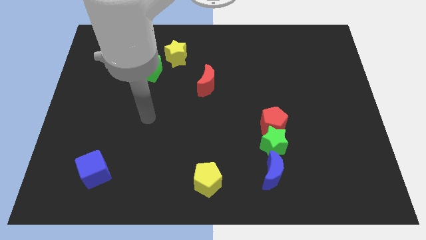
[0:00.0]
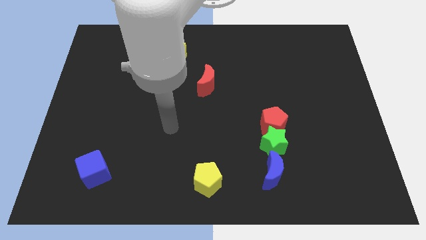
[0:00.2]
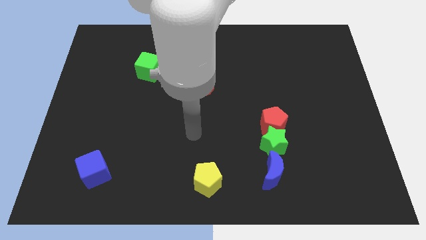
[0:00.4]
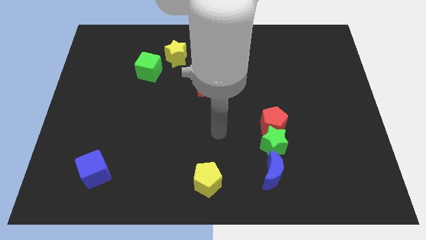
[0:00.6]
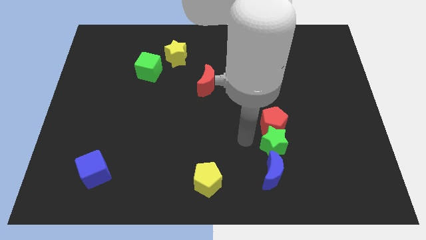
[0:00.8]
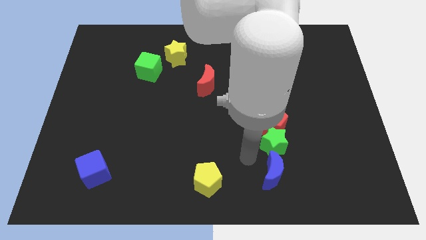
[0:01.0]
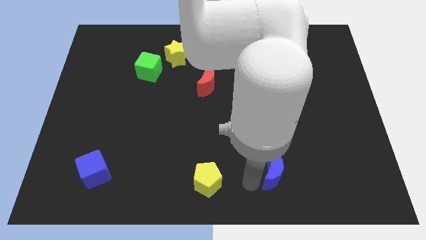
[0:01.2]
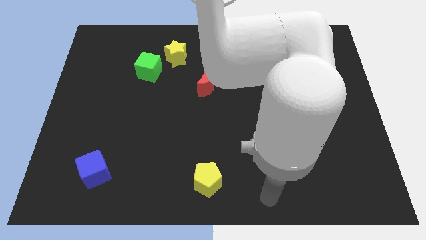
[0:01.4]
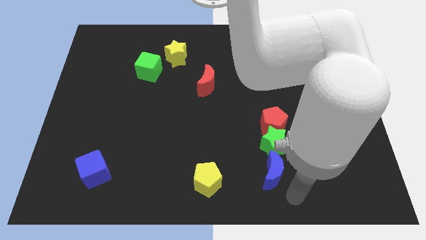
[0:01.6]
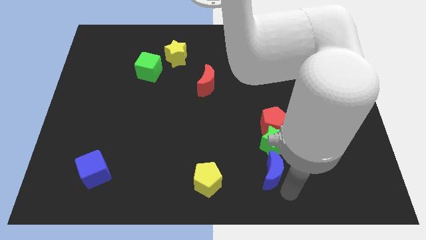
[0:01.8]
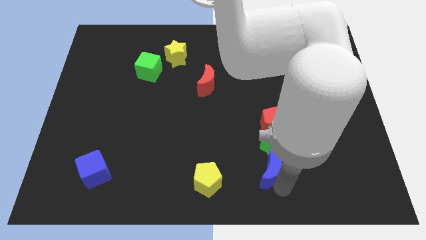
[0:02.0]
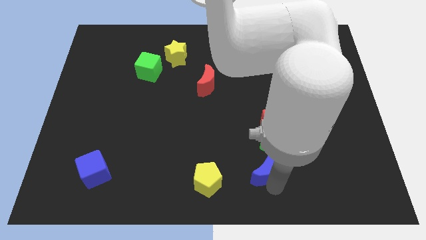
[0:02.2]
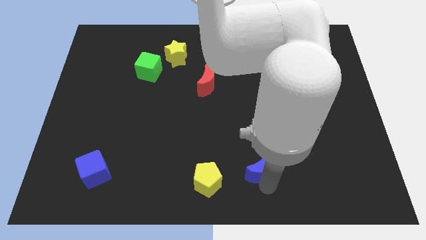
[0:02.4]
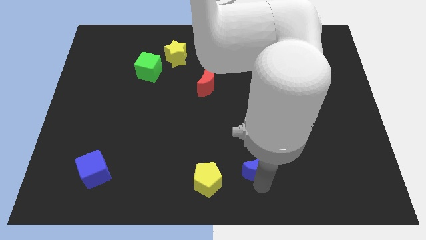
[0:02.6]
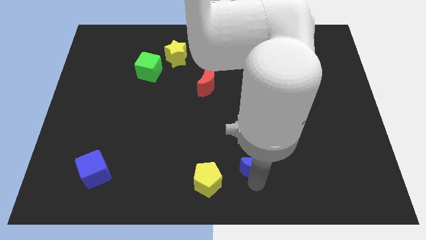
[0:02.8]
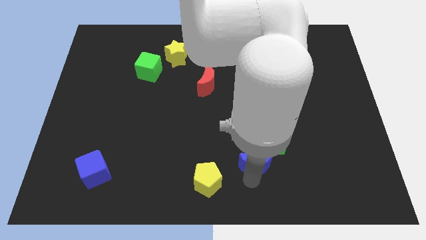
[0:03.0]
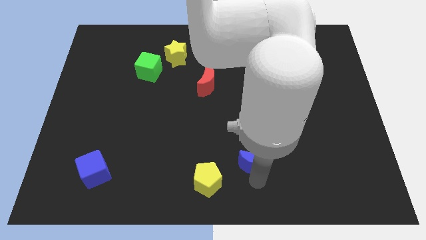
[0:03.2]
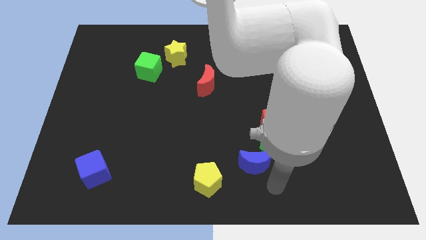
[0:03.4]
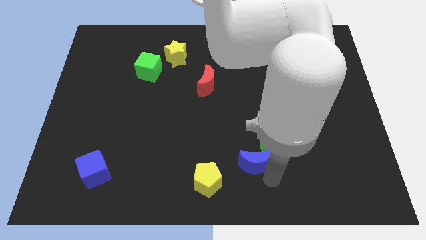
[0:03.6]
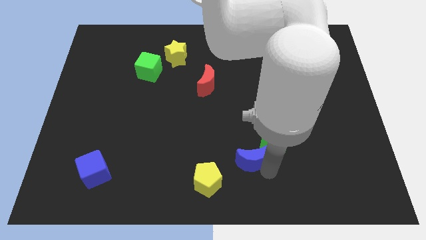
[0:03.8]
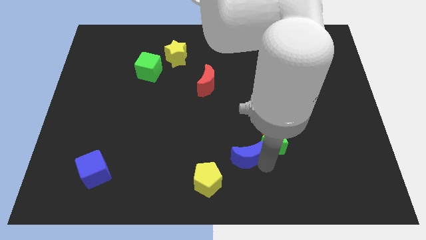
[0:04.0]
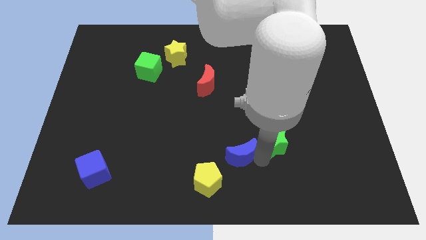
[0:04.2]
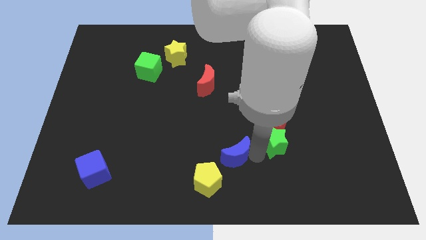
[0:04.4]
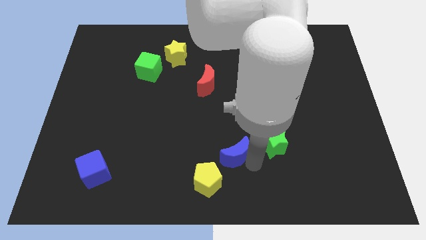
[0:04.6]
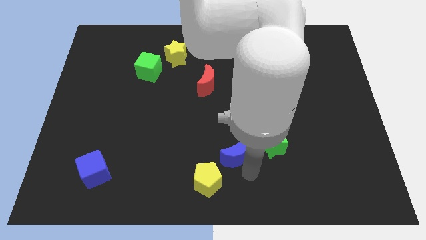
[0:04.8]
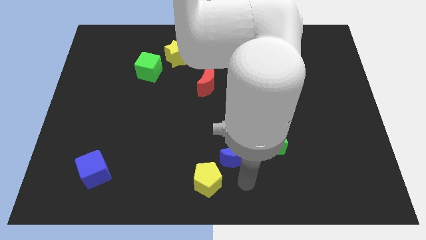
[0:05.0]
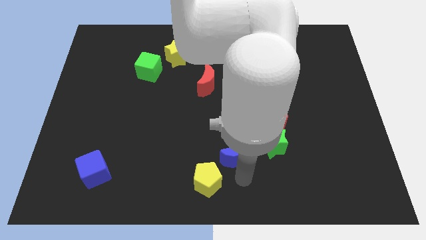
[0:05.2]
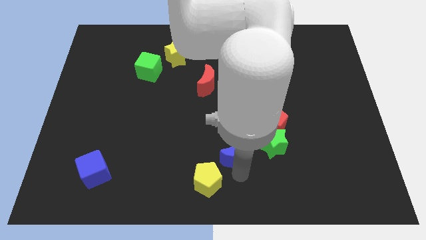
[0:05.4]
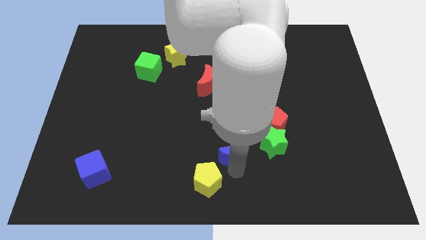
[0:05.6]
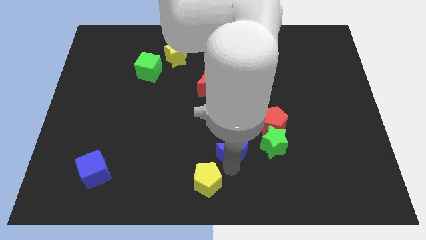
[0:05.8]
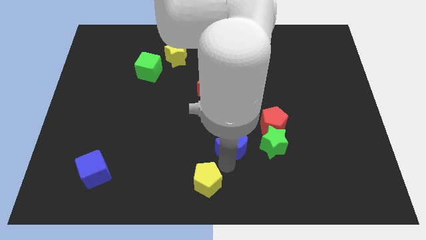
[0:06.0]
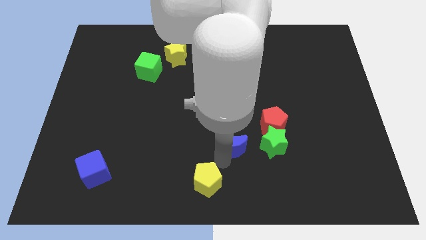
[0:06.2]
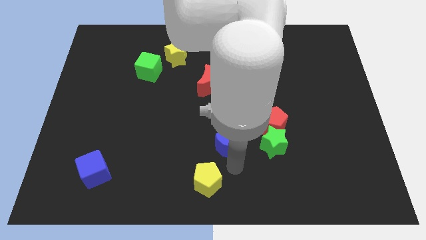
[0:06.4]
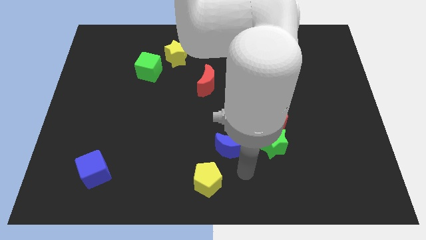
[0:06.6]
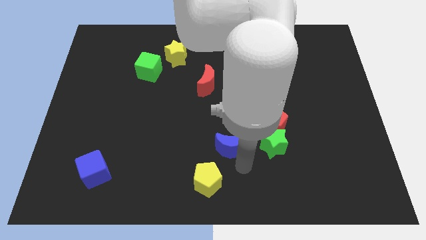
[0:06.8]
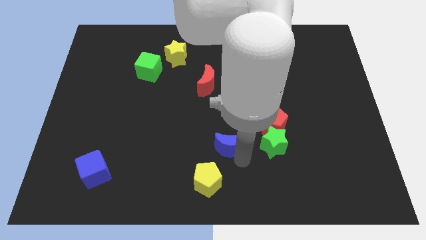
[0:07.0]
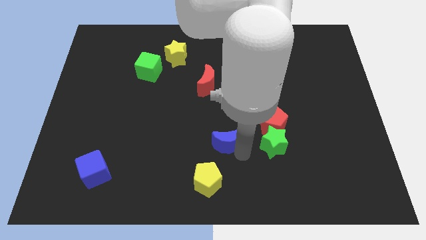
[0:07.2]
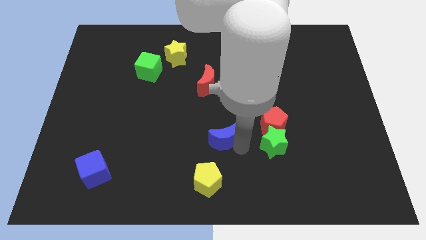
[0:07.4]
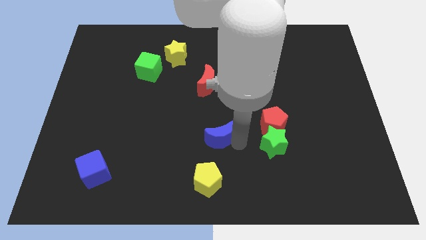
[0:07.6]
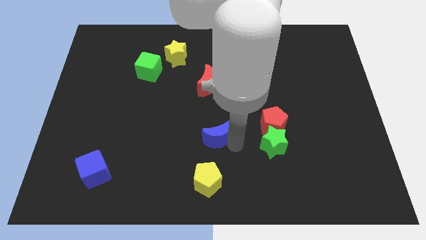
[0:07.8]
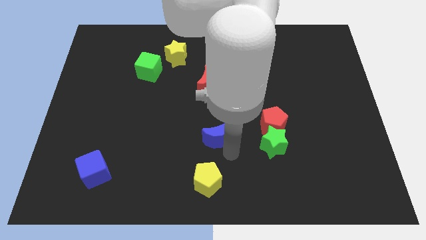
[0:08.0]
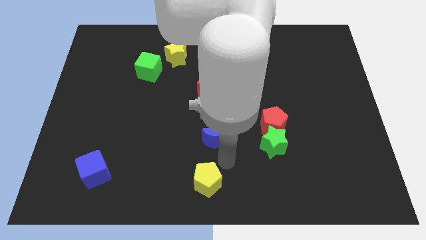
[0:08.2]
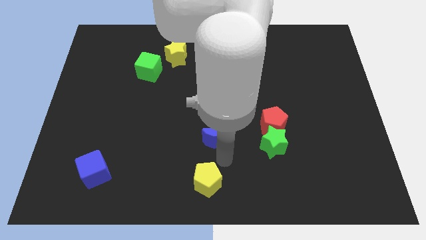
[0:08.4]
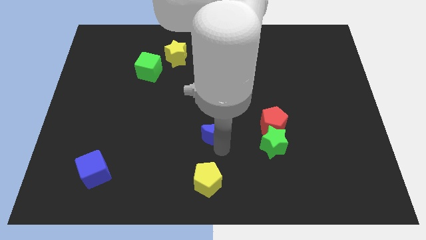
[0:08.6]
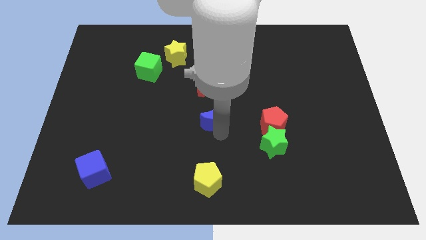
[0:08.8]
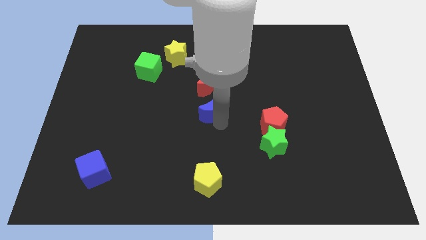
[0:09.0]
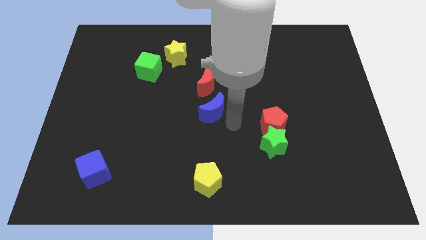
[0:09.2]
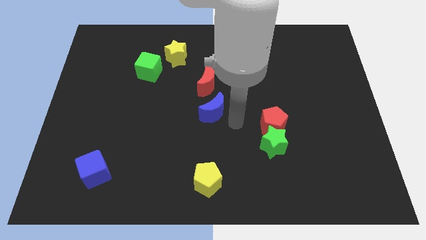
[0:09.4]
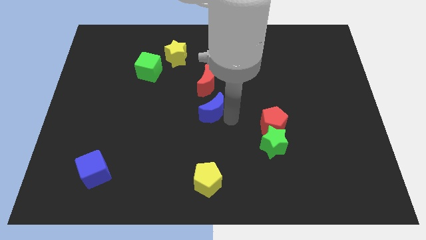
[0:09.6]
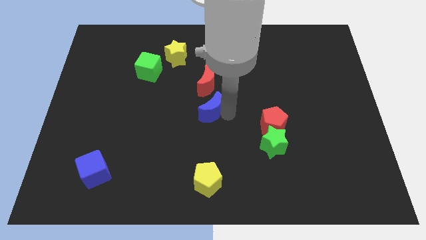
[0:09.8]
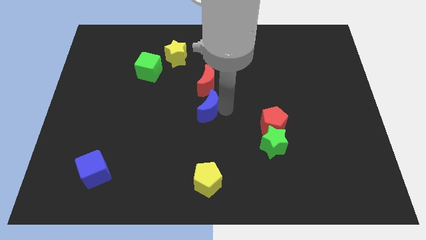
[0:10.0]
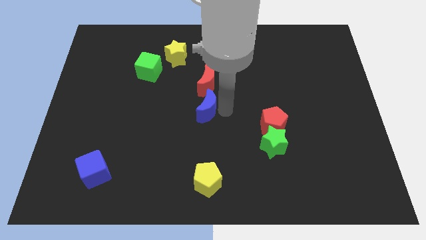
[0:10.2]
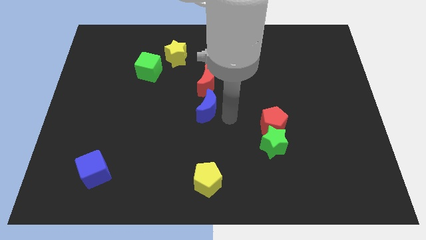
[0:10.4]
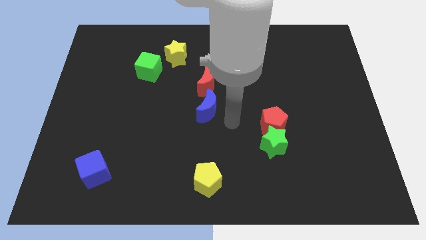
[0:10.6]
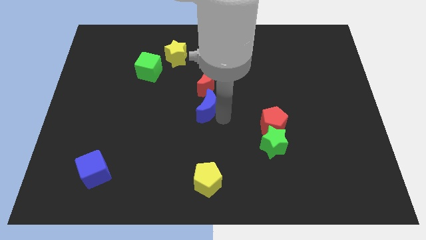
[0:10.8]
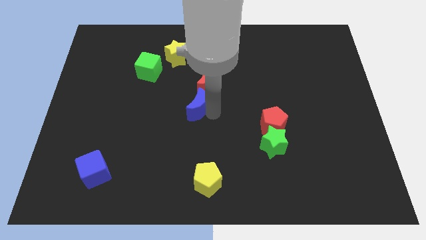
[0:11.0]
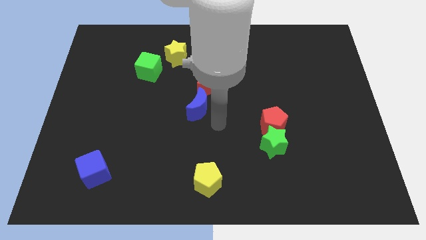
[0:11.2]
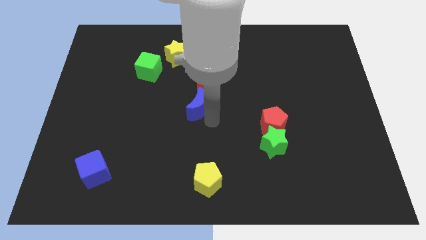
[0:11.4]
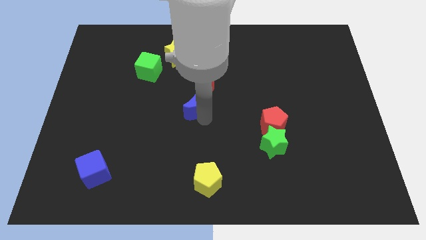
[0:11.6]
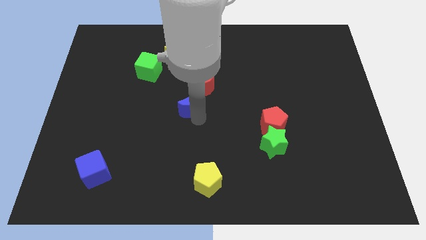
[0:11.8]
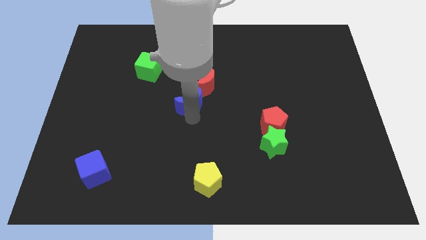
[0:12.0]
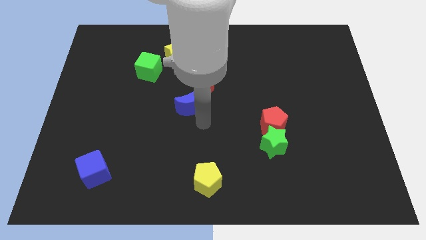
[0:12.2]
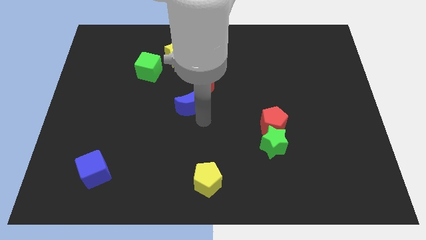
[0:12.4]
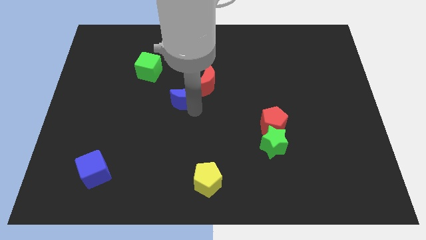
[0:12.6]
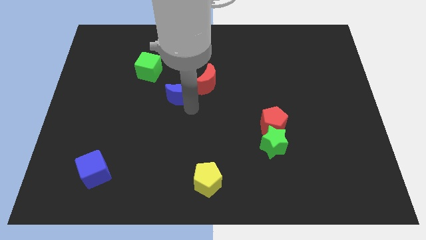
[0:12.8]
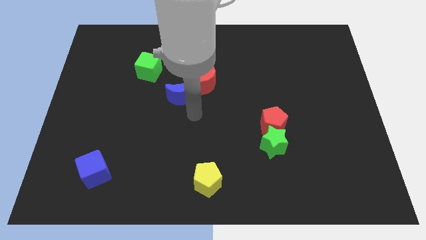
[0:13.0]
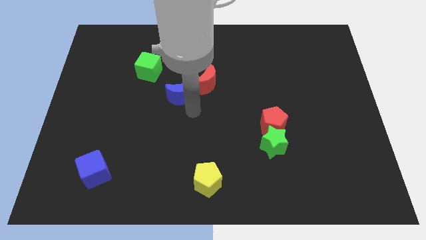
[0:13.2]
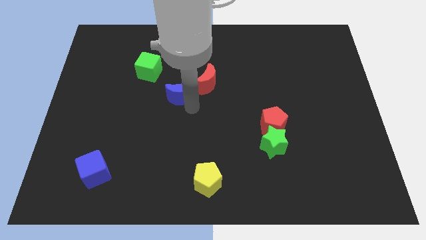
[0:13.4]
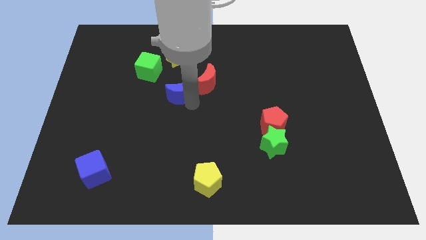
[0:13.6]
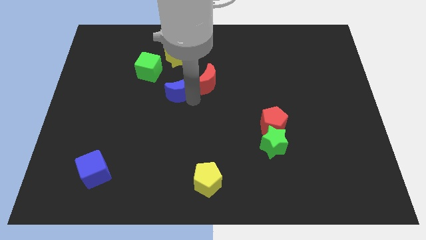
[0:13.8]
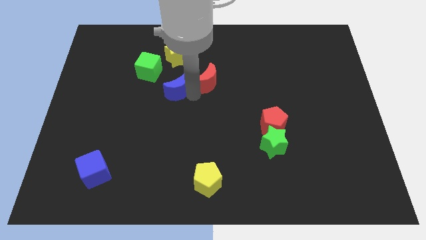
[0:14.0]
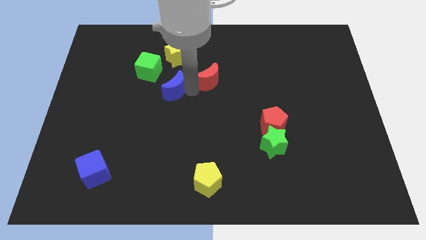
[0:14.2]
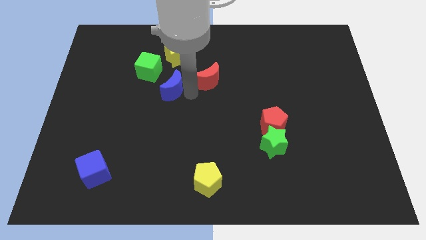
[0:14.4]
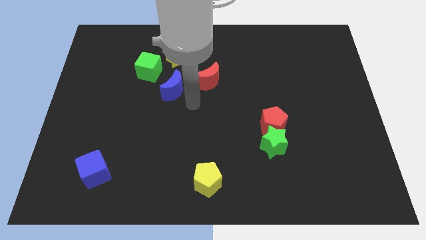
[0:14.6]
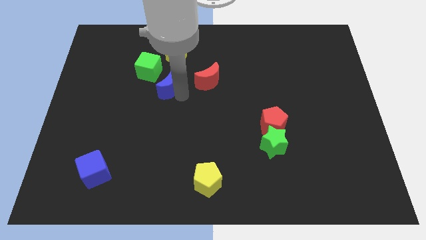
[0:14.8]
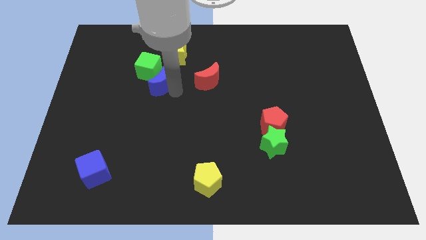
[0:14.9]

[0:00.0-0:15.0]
move the blue moon close to the green cube

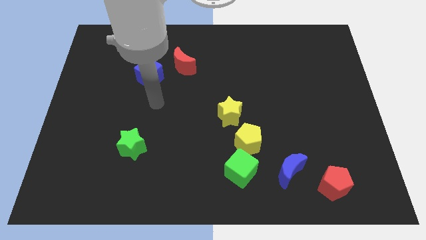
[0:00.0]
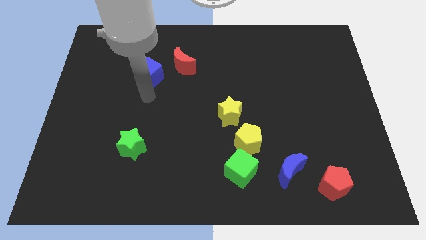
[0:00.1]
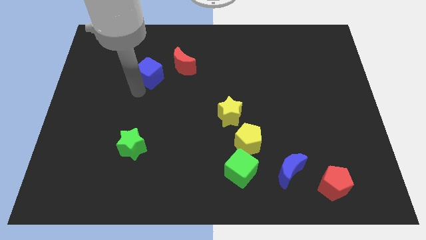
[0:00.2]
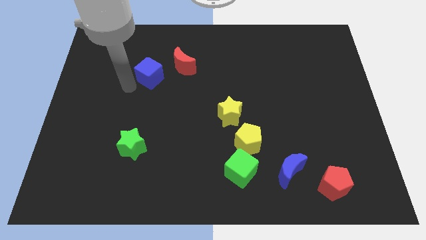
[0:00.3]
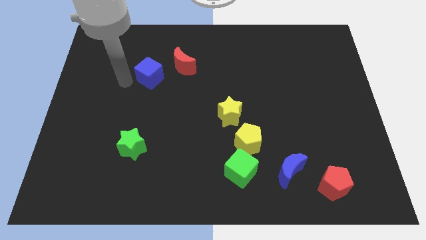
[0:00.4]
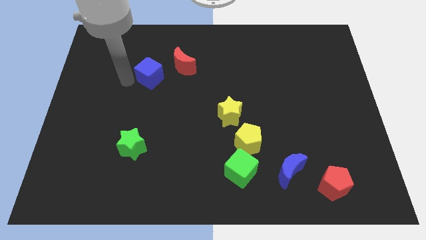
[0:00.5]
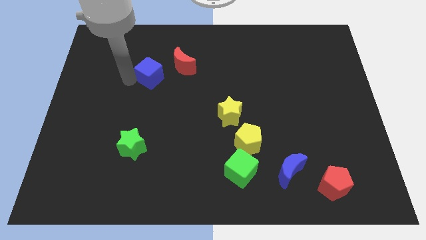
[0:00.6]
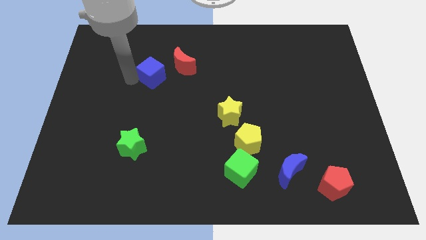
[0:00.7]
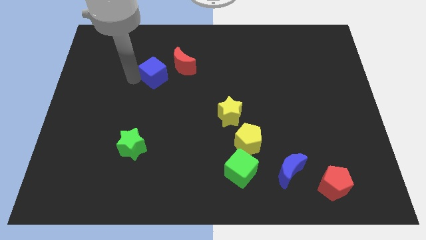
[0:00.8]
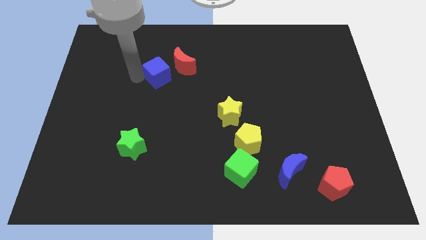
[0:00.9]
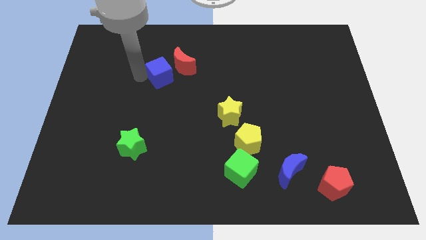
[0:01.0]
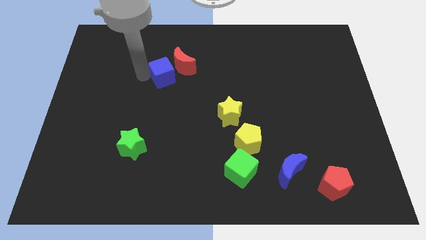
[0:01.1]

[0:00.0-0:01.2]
move the blue cube next to the red moon
